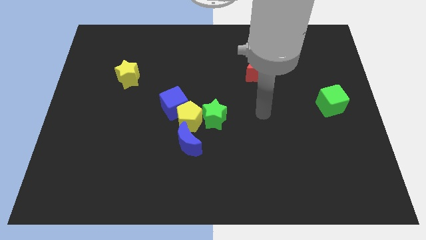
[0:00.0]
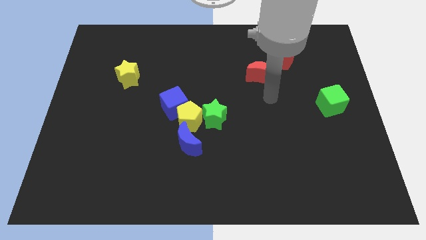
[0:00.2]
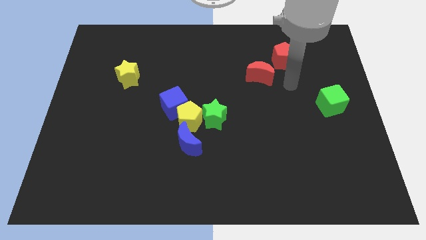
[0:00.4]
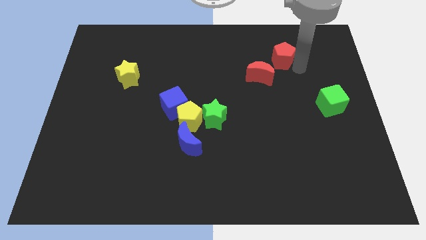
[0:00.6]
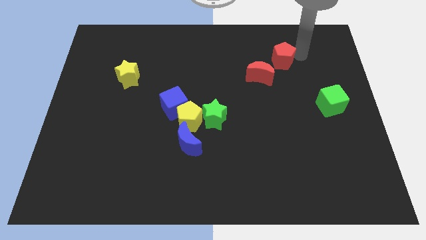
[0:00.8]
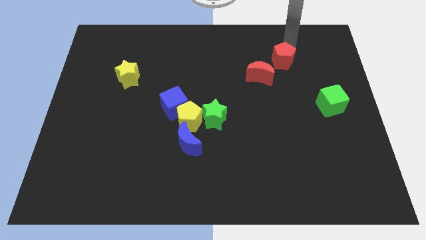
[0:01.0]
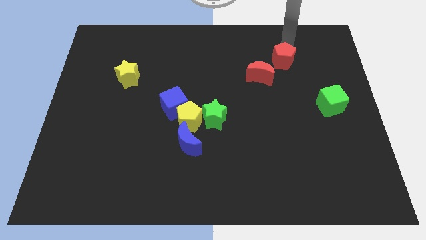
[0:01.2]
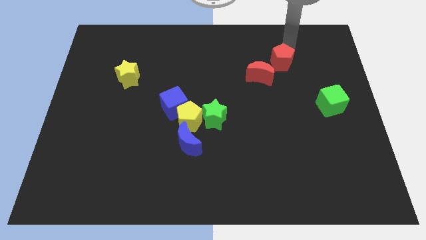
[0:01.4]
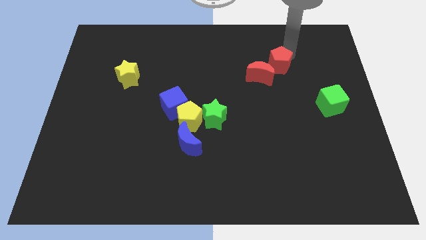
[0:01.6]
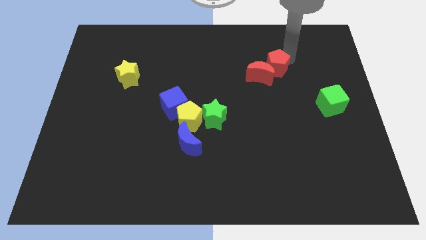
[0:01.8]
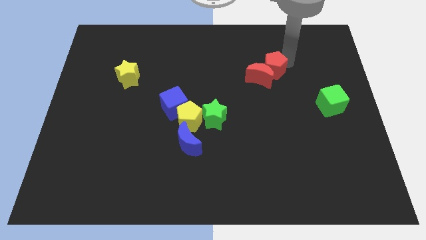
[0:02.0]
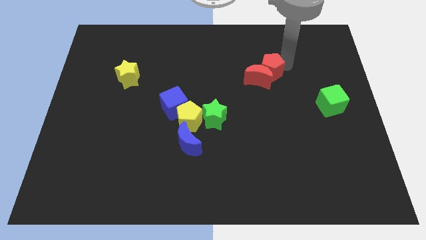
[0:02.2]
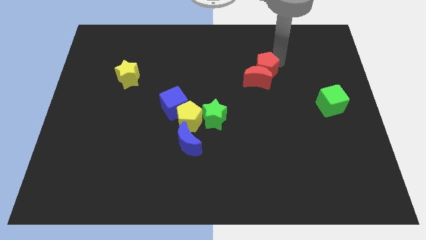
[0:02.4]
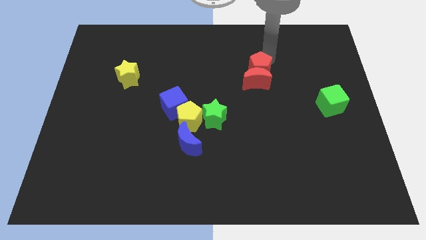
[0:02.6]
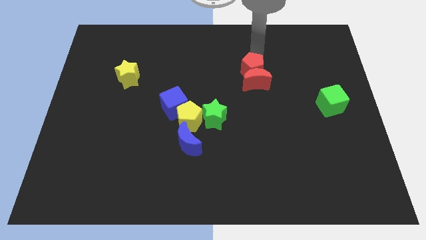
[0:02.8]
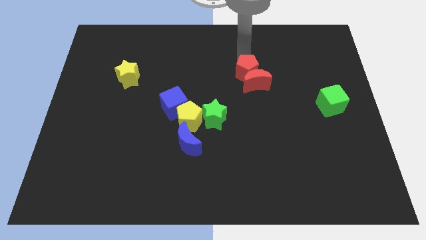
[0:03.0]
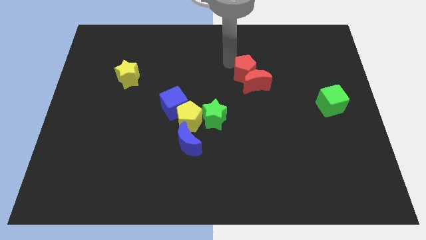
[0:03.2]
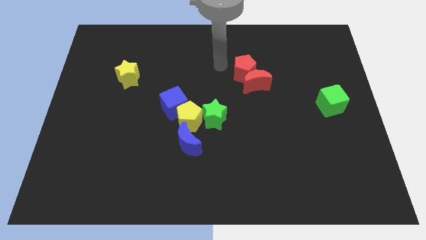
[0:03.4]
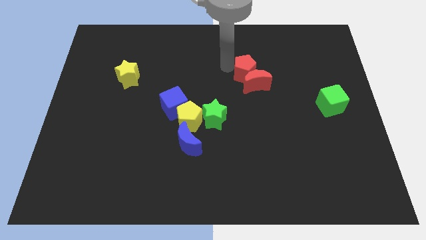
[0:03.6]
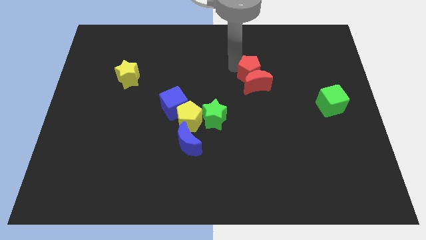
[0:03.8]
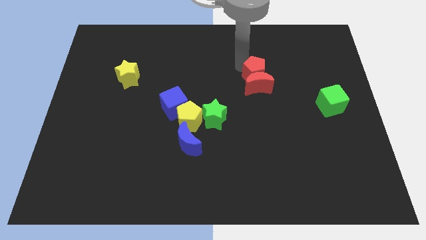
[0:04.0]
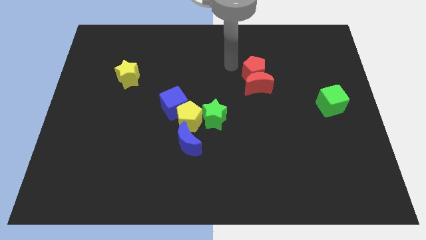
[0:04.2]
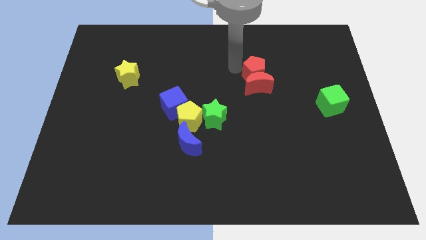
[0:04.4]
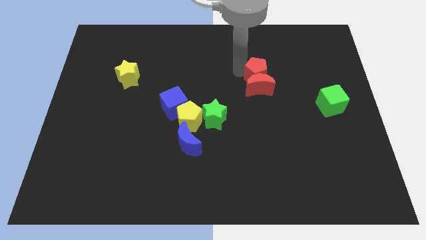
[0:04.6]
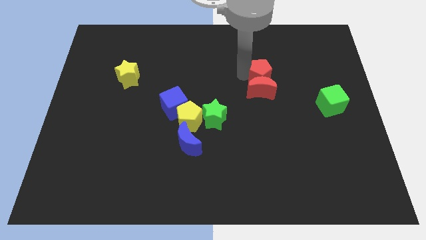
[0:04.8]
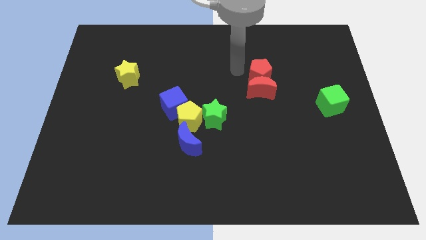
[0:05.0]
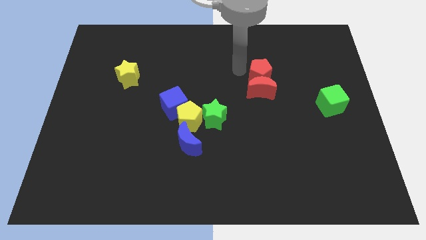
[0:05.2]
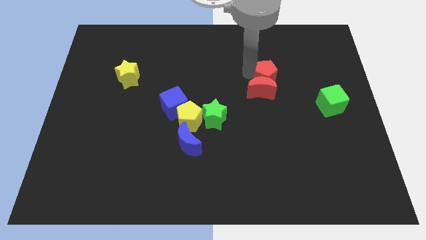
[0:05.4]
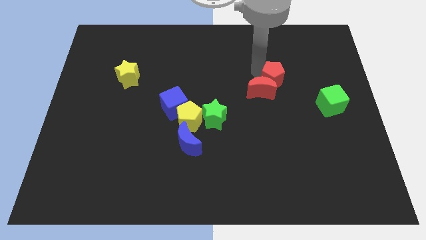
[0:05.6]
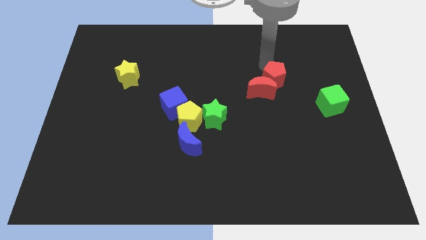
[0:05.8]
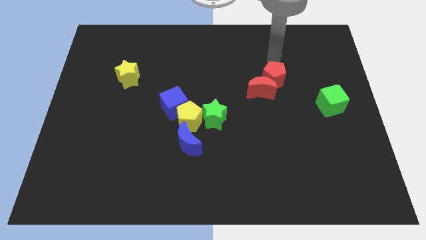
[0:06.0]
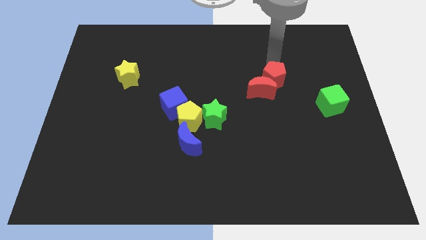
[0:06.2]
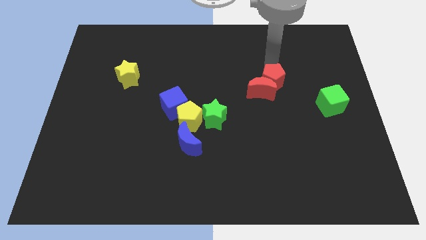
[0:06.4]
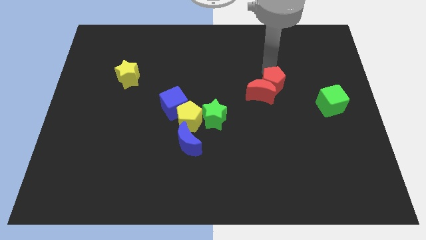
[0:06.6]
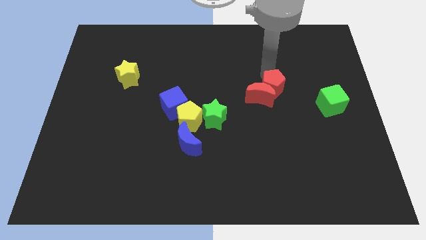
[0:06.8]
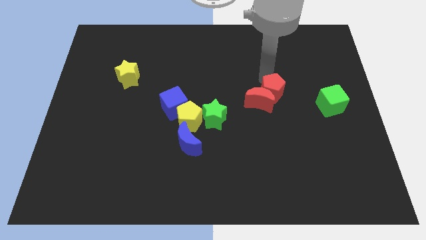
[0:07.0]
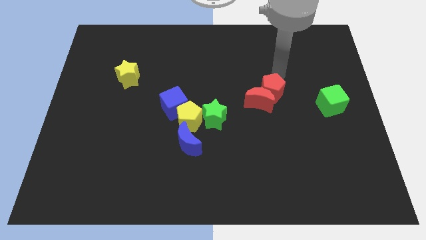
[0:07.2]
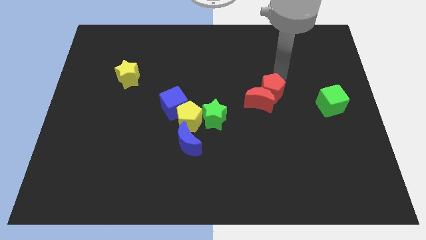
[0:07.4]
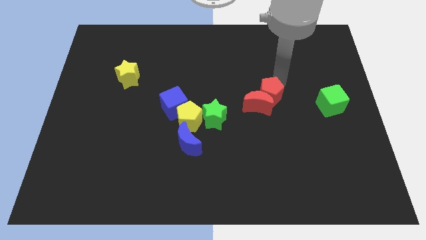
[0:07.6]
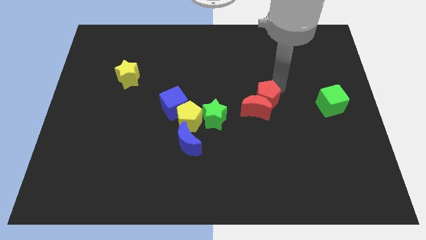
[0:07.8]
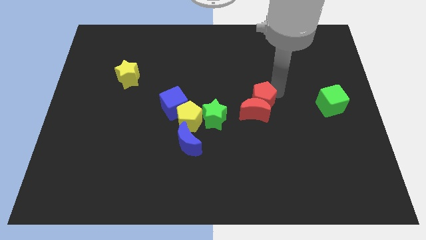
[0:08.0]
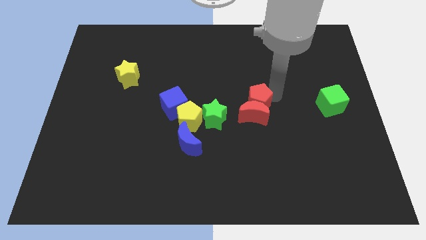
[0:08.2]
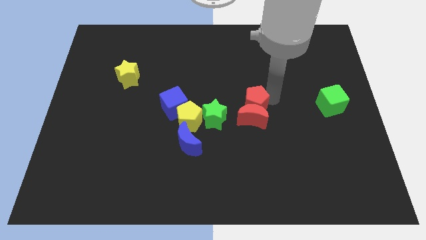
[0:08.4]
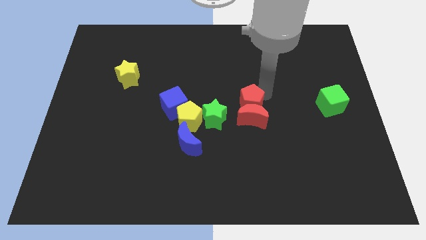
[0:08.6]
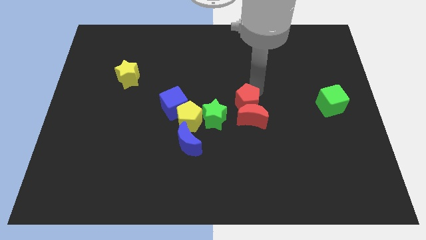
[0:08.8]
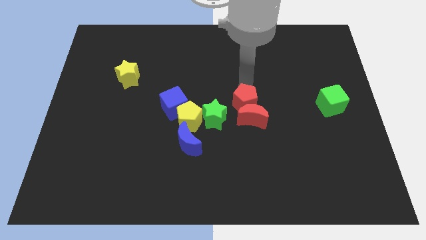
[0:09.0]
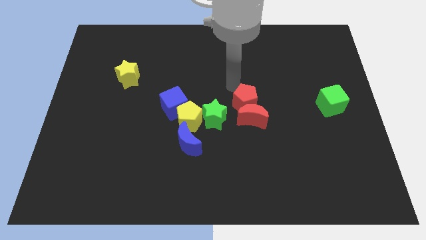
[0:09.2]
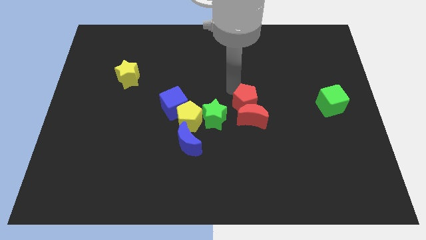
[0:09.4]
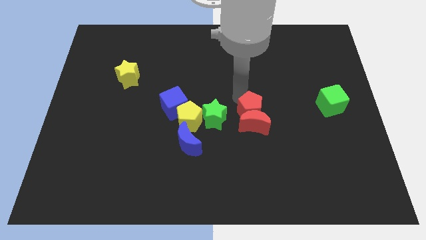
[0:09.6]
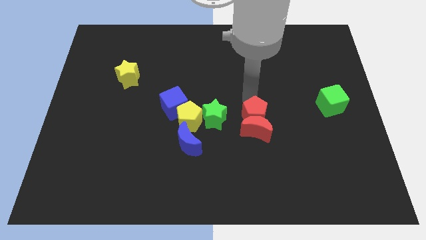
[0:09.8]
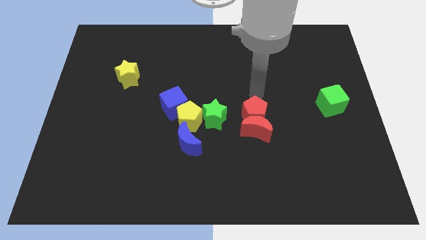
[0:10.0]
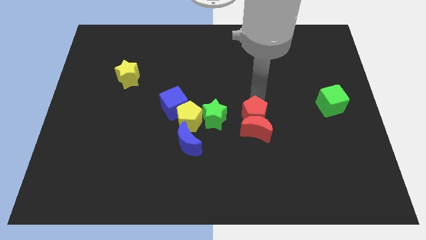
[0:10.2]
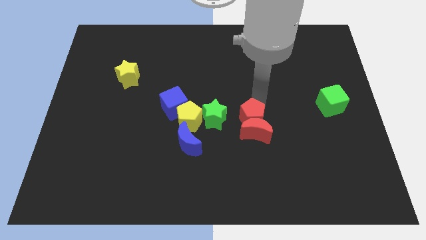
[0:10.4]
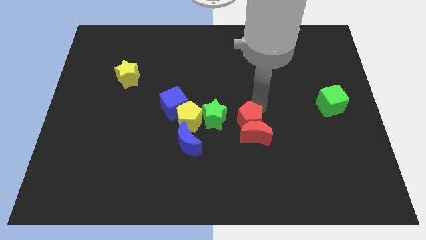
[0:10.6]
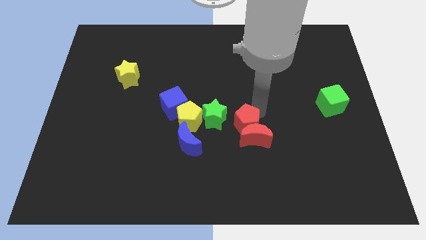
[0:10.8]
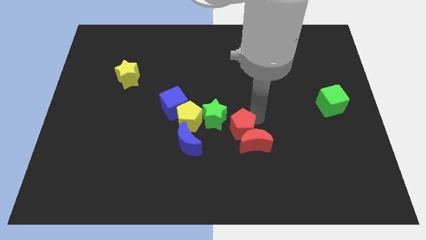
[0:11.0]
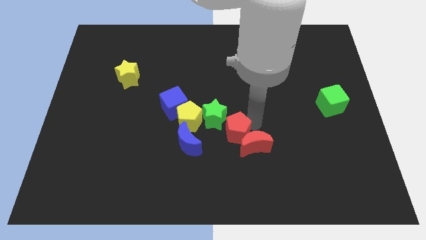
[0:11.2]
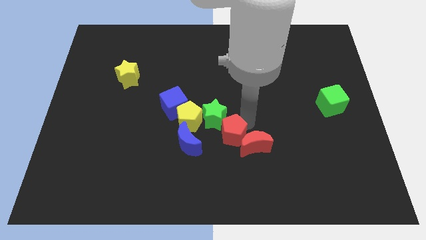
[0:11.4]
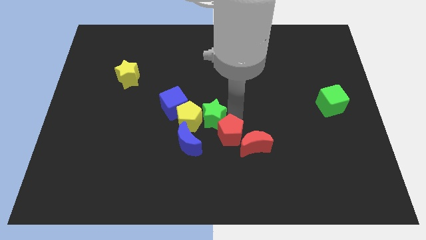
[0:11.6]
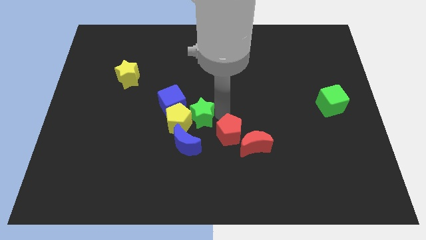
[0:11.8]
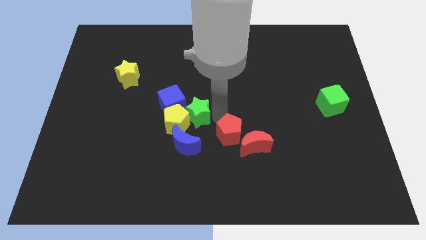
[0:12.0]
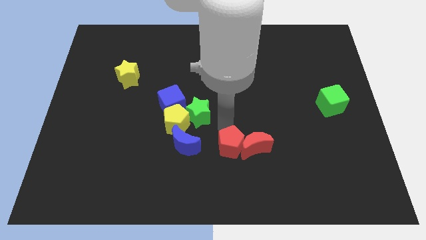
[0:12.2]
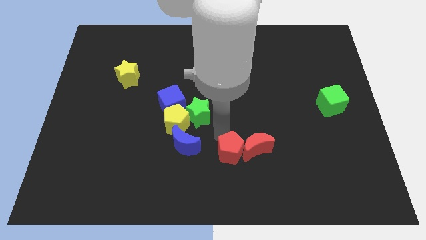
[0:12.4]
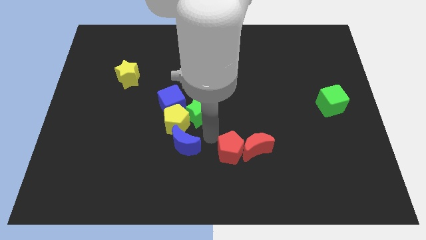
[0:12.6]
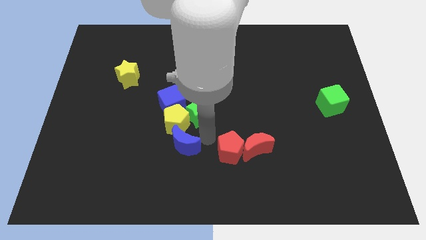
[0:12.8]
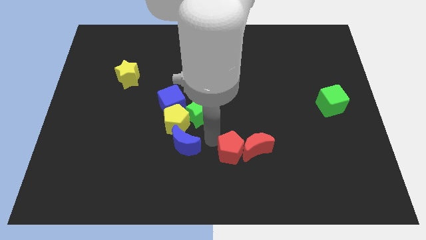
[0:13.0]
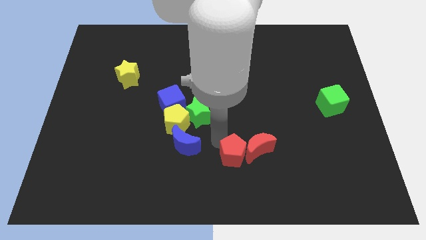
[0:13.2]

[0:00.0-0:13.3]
push the red pentagon to the bottom side

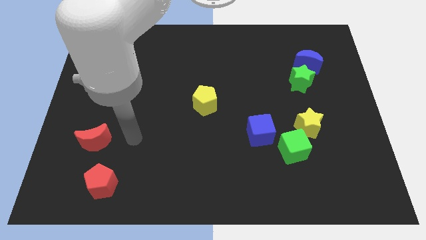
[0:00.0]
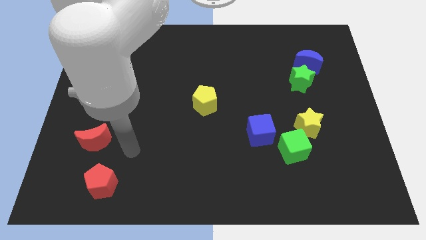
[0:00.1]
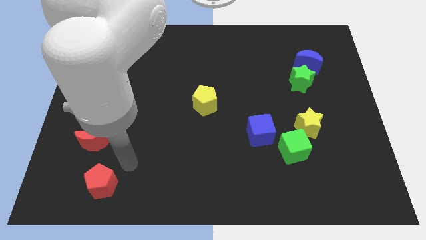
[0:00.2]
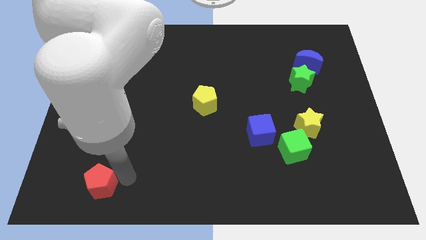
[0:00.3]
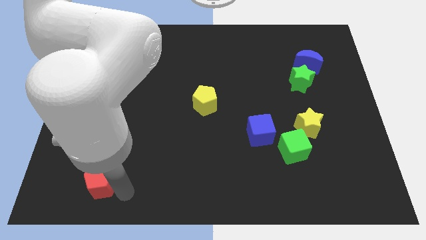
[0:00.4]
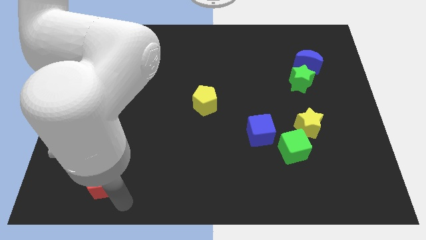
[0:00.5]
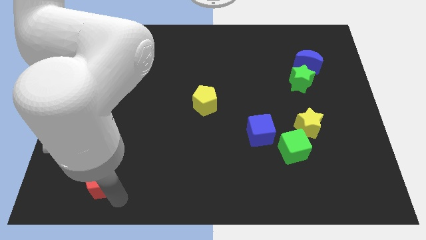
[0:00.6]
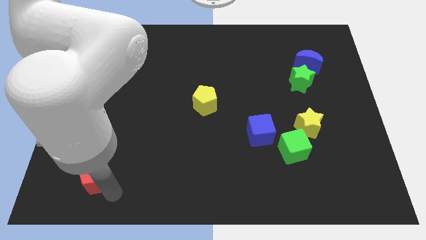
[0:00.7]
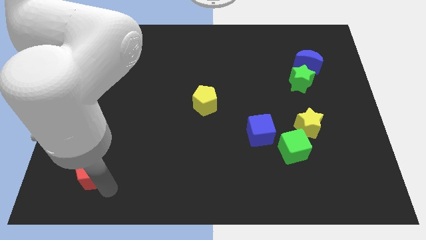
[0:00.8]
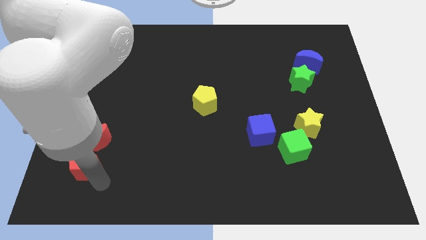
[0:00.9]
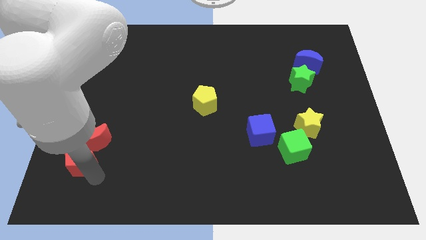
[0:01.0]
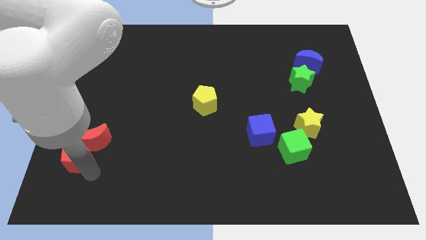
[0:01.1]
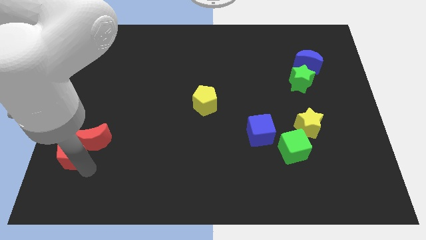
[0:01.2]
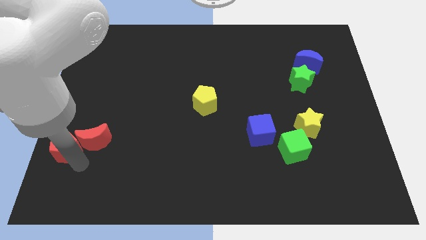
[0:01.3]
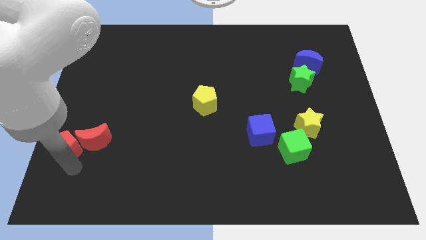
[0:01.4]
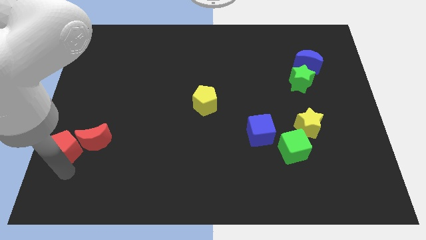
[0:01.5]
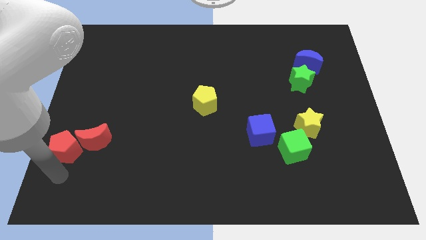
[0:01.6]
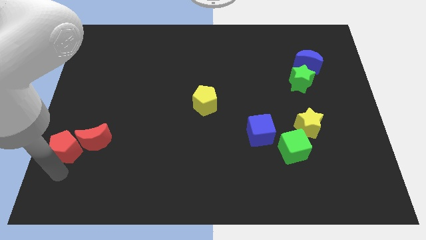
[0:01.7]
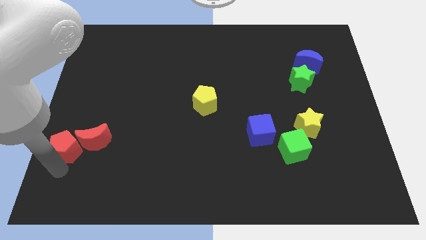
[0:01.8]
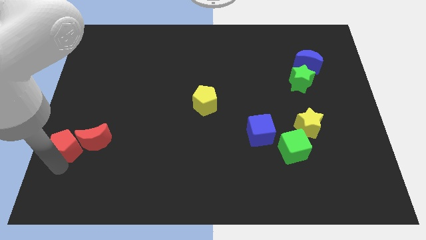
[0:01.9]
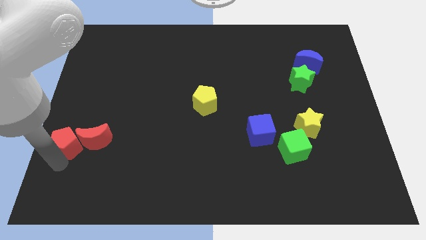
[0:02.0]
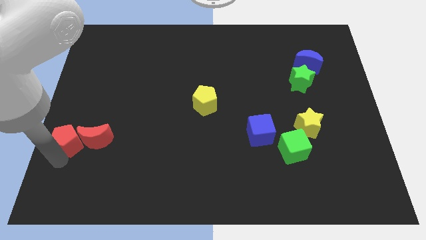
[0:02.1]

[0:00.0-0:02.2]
slide the red pentagon to the left side of the board
